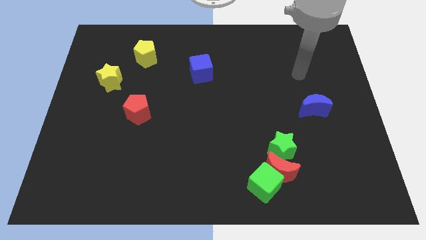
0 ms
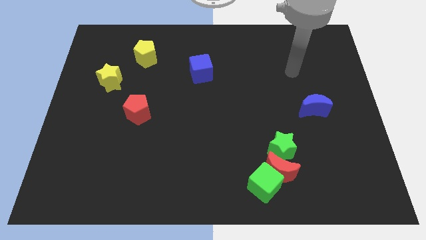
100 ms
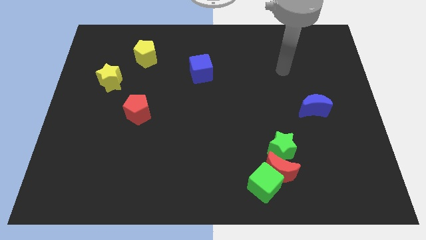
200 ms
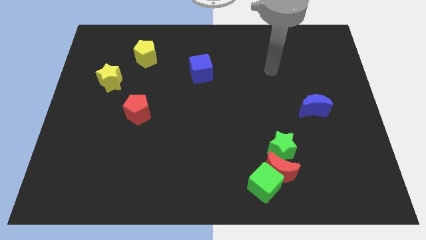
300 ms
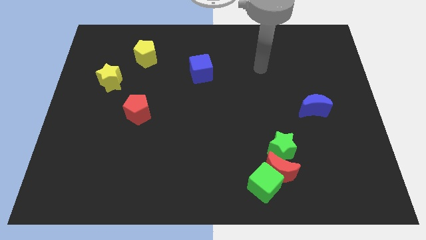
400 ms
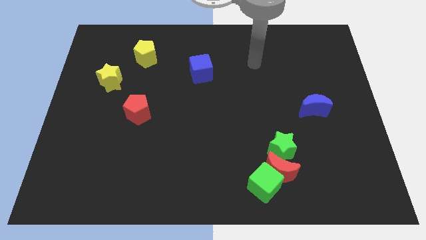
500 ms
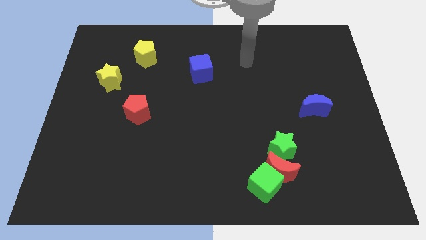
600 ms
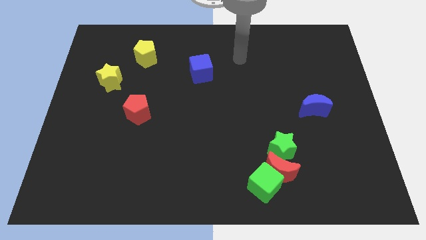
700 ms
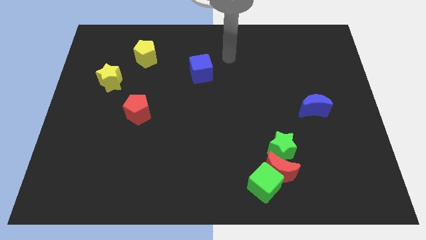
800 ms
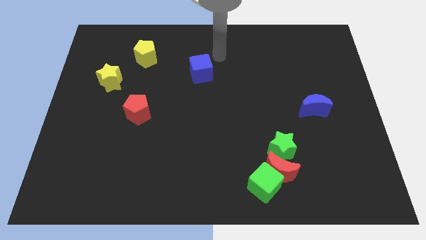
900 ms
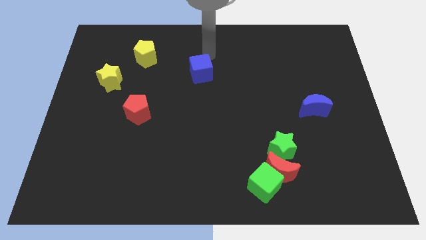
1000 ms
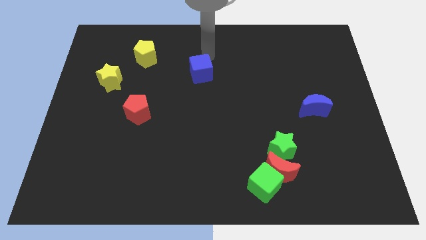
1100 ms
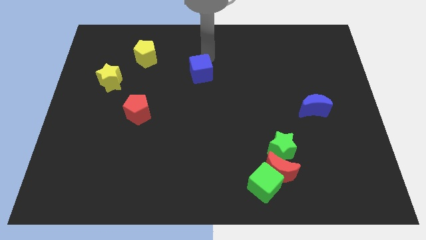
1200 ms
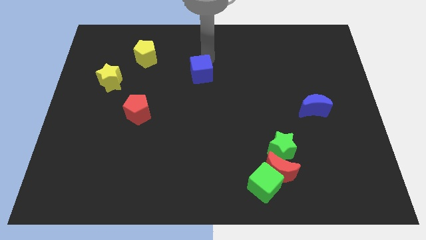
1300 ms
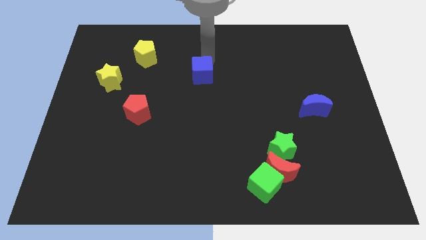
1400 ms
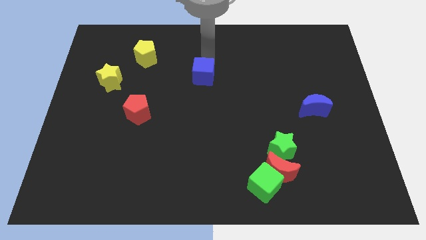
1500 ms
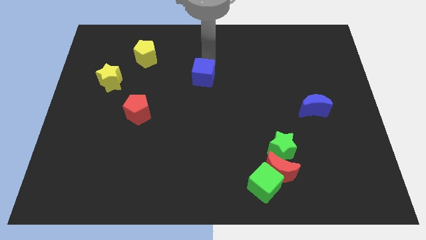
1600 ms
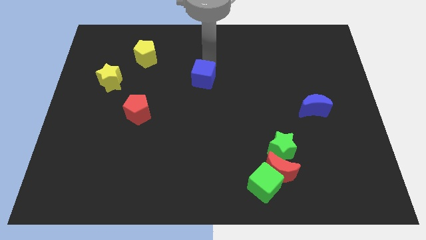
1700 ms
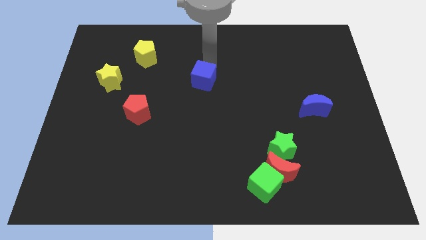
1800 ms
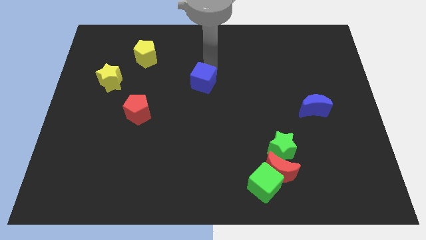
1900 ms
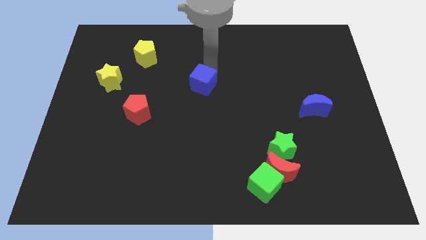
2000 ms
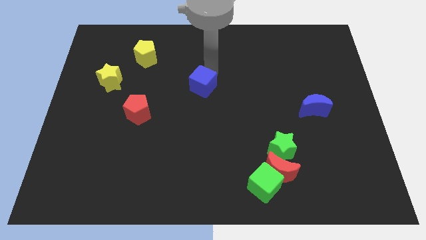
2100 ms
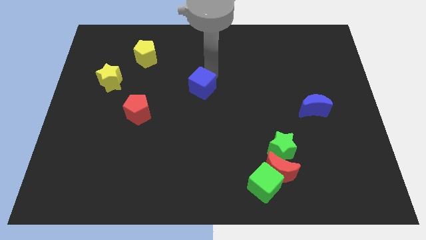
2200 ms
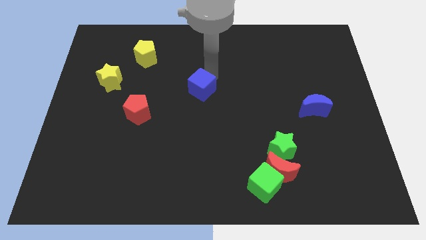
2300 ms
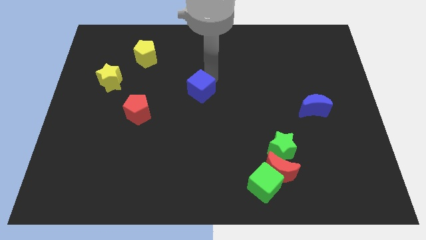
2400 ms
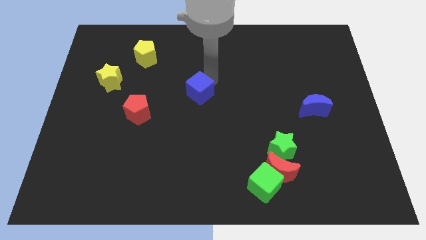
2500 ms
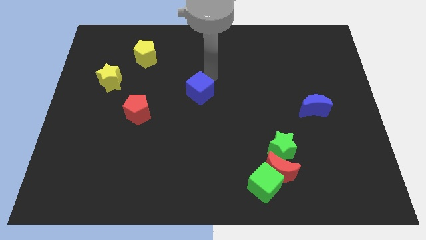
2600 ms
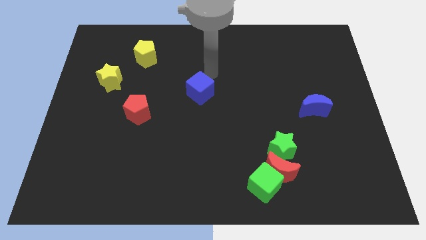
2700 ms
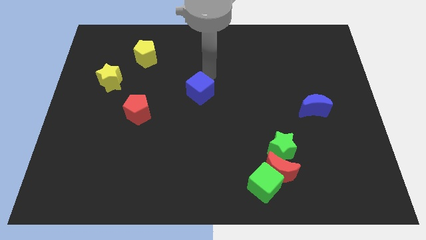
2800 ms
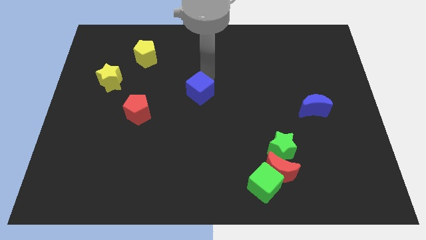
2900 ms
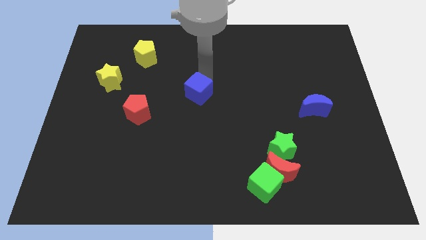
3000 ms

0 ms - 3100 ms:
push the blue cube a little down

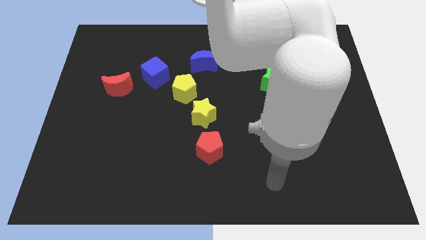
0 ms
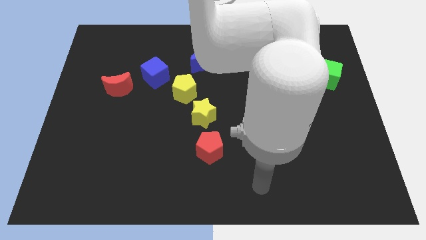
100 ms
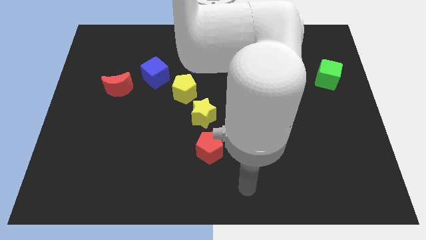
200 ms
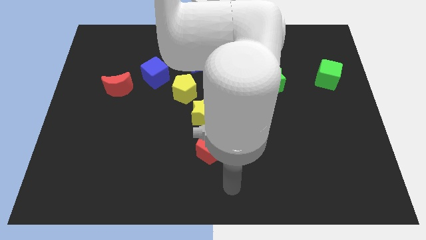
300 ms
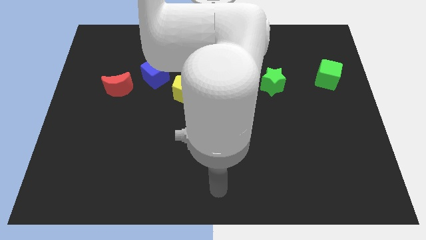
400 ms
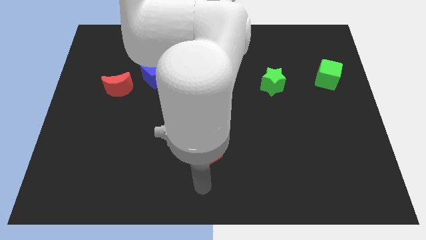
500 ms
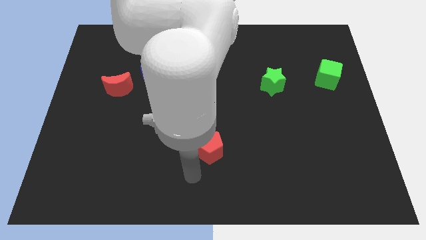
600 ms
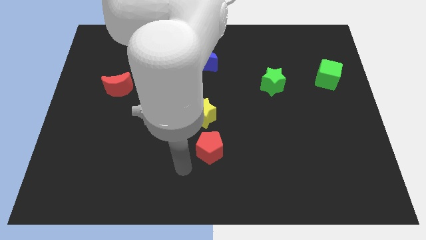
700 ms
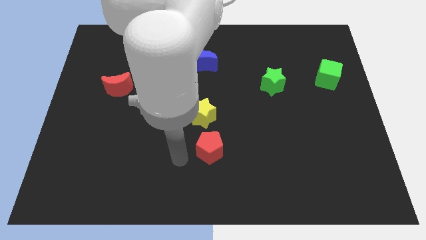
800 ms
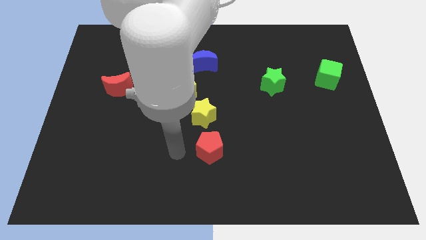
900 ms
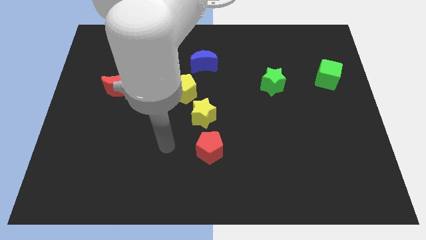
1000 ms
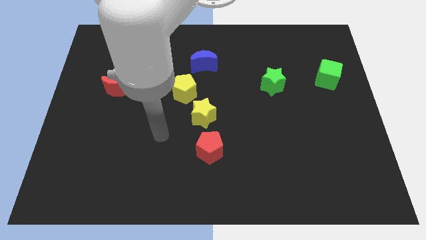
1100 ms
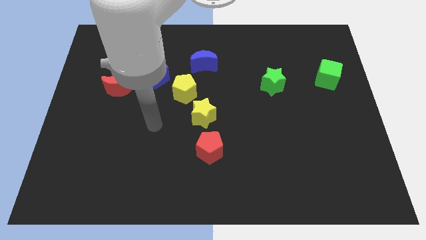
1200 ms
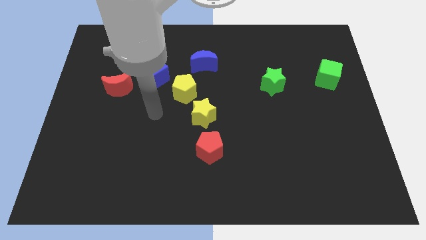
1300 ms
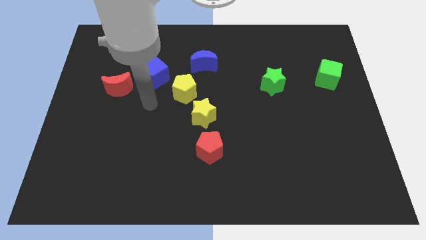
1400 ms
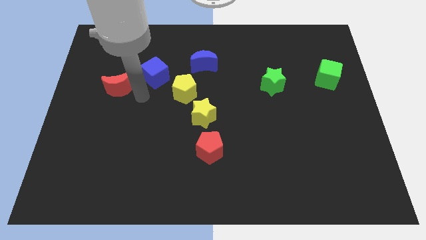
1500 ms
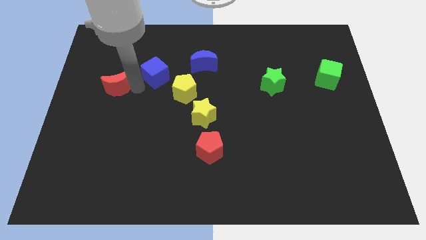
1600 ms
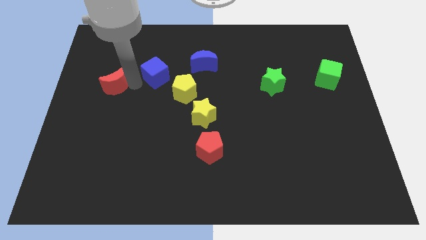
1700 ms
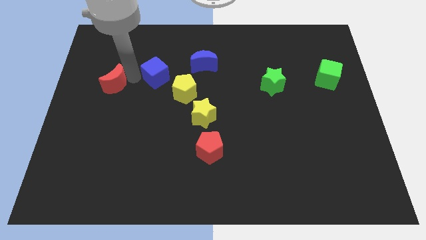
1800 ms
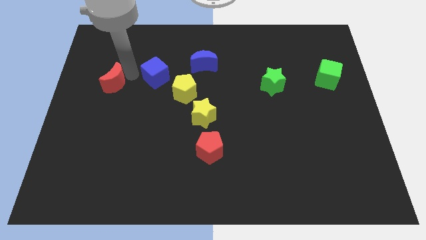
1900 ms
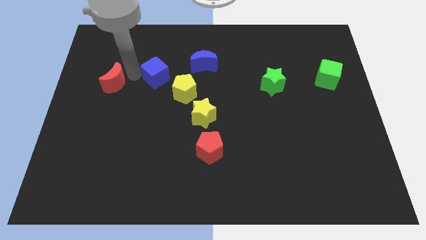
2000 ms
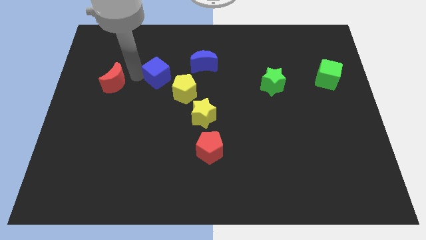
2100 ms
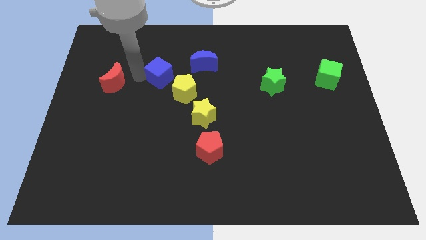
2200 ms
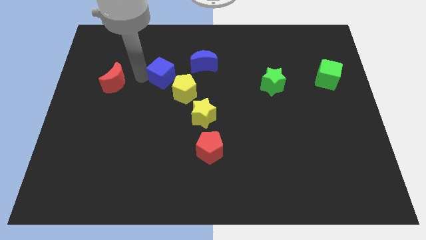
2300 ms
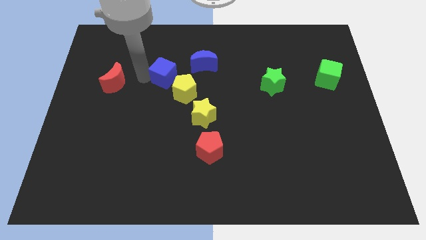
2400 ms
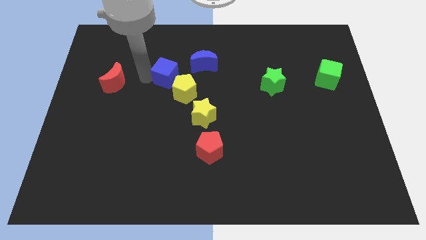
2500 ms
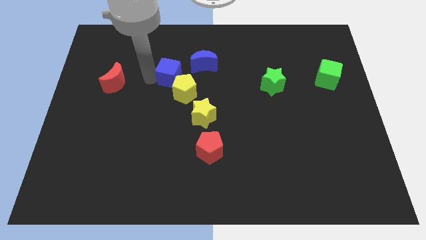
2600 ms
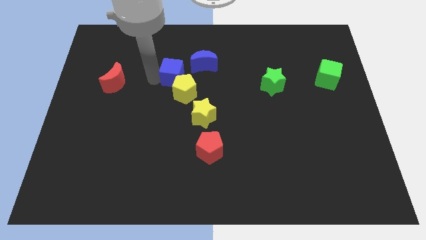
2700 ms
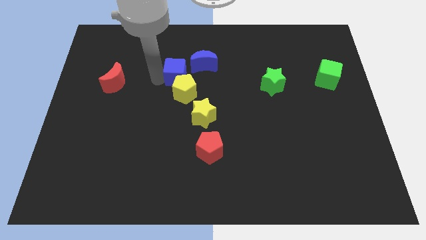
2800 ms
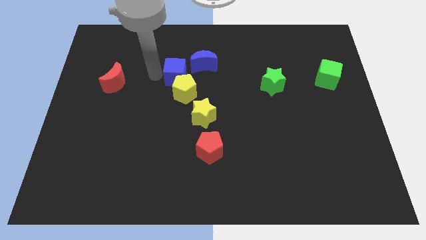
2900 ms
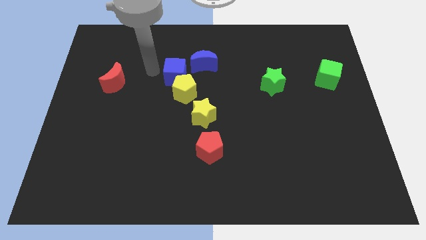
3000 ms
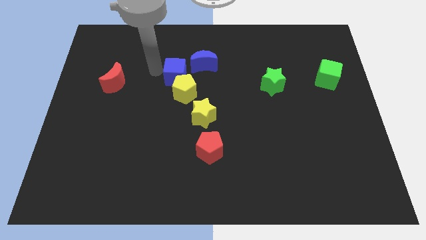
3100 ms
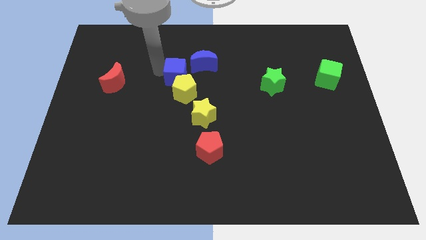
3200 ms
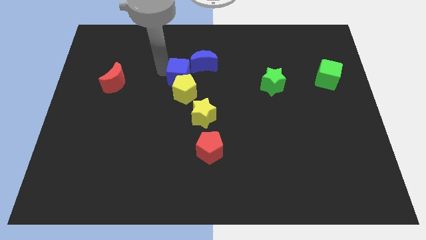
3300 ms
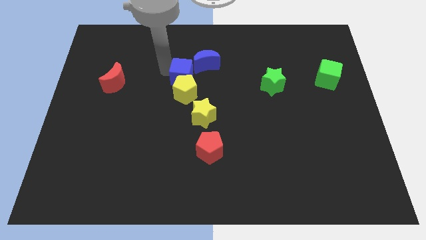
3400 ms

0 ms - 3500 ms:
slide the blue cube to the right a bit

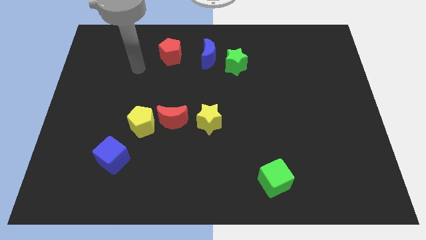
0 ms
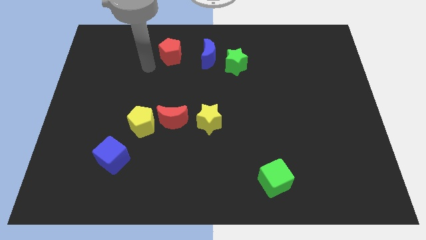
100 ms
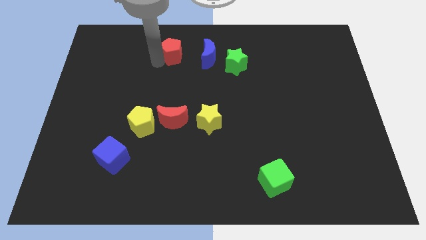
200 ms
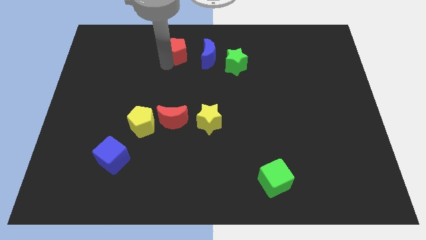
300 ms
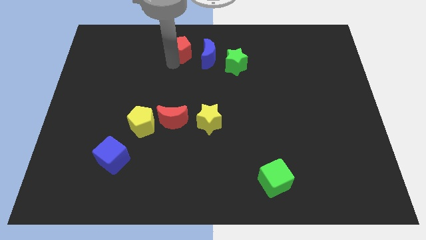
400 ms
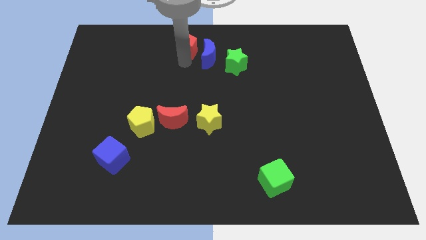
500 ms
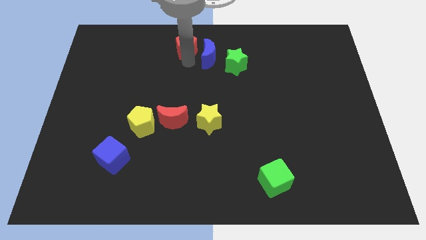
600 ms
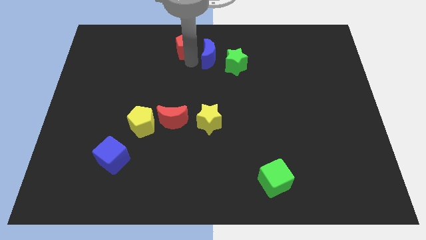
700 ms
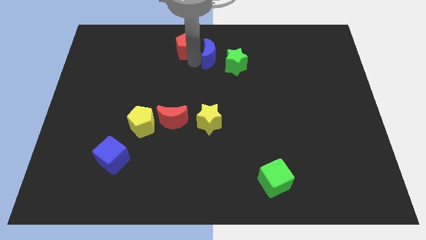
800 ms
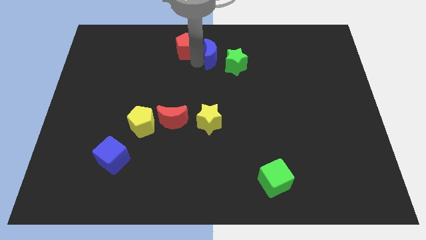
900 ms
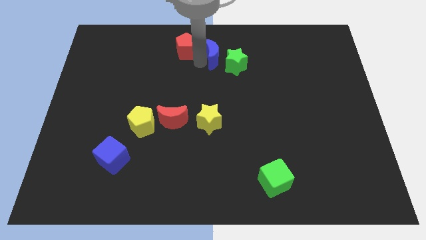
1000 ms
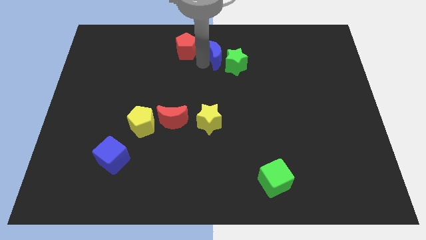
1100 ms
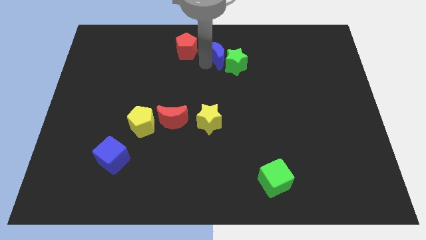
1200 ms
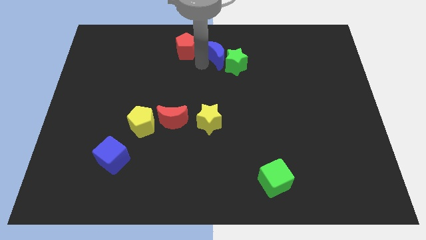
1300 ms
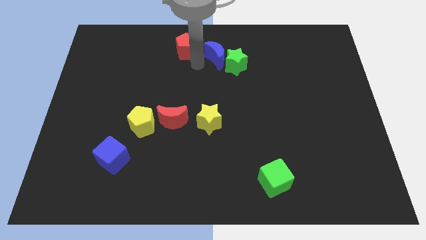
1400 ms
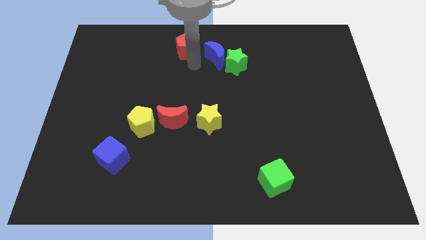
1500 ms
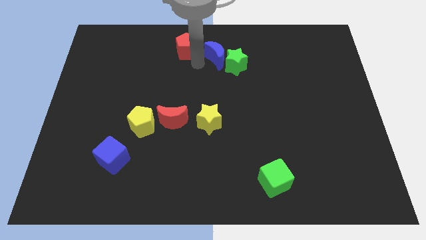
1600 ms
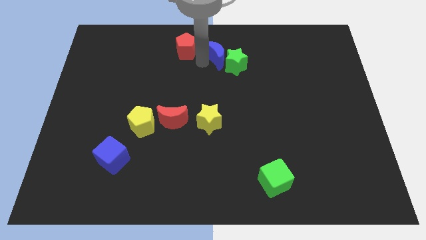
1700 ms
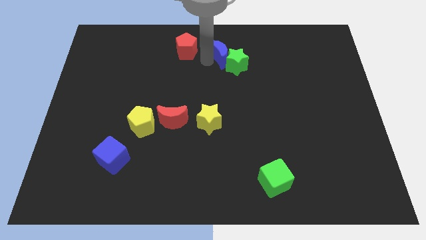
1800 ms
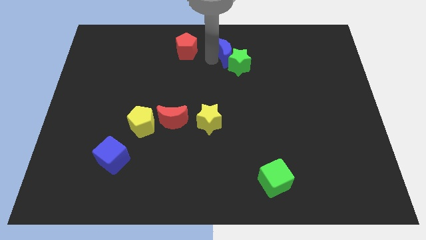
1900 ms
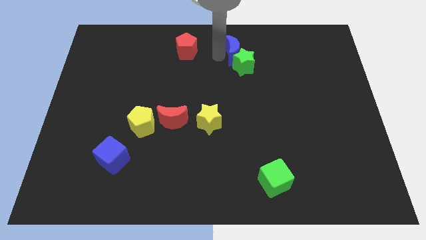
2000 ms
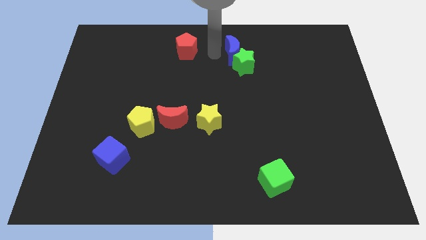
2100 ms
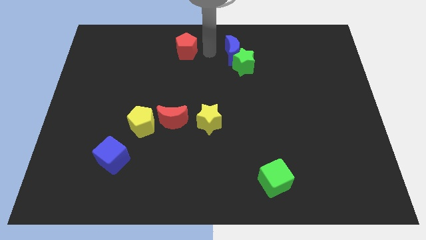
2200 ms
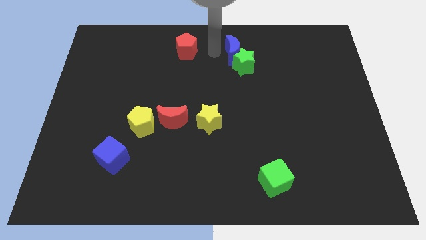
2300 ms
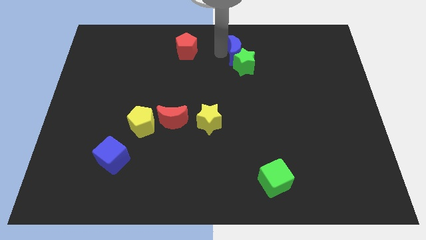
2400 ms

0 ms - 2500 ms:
move the blue moon a little to the right
